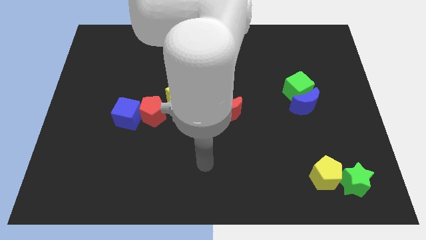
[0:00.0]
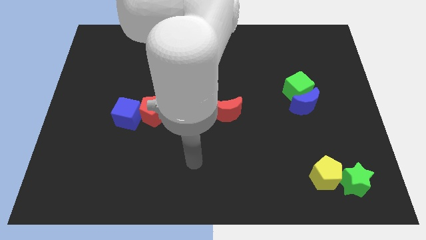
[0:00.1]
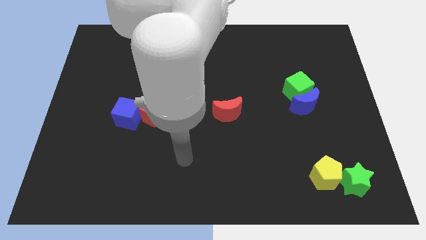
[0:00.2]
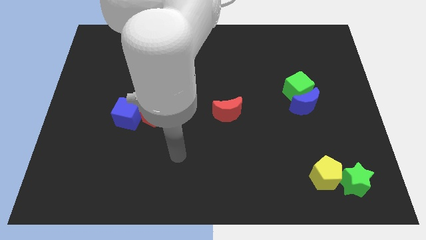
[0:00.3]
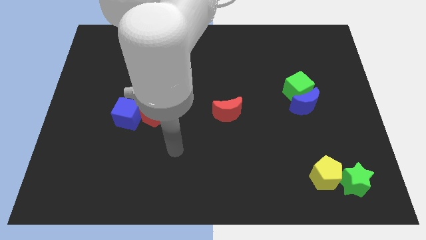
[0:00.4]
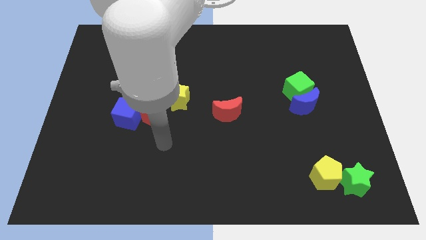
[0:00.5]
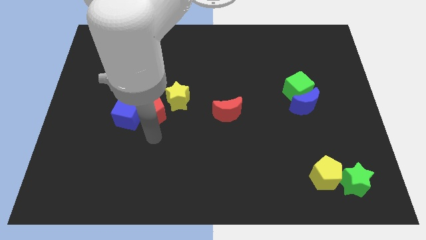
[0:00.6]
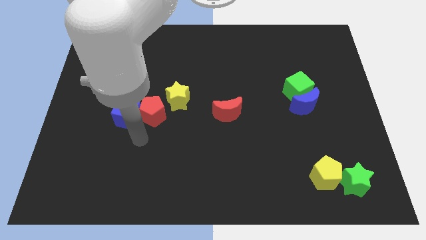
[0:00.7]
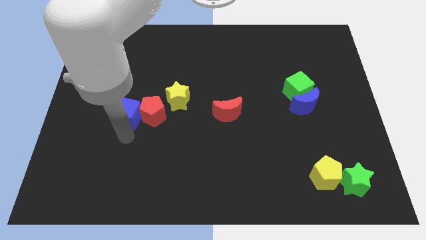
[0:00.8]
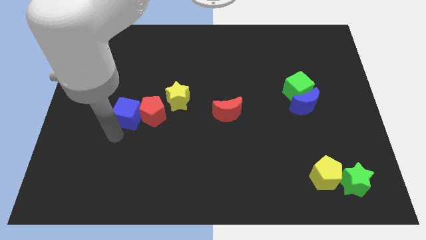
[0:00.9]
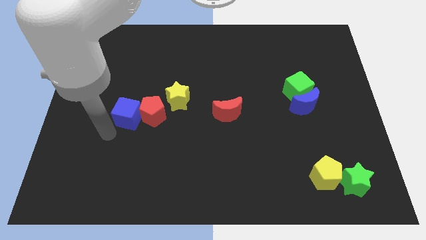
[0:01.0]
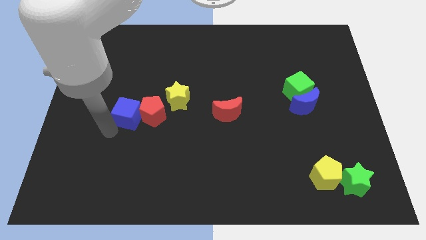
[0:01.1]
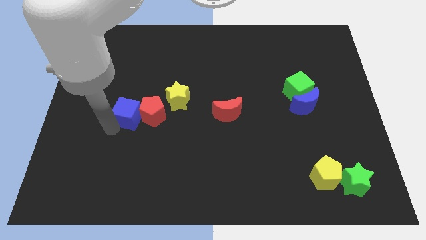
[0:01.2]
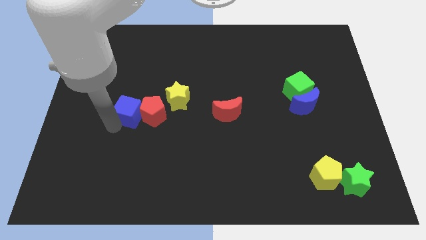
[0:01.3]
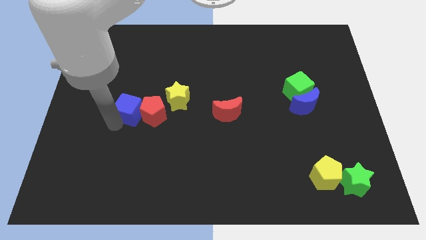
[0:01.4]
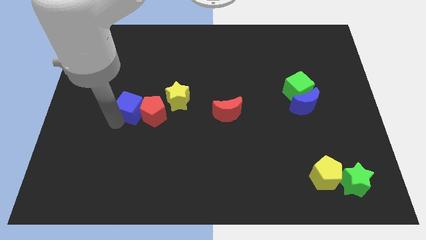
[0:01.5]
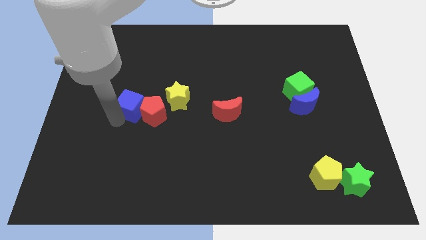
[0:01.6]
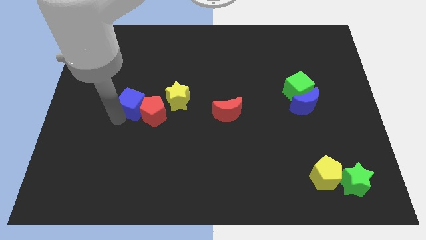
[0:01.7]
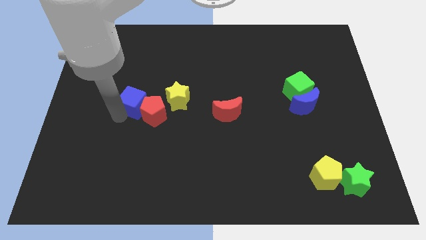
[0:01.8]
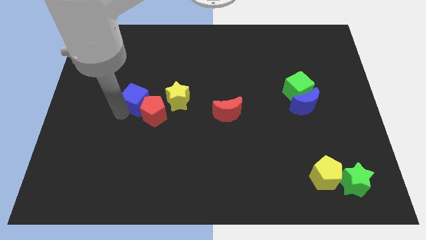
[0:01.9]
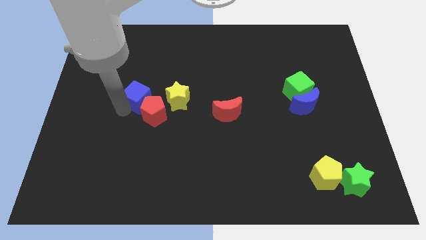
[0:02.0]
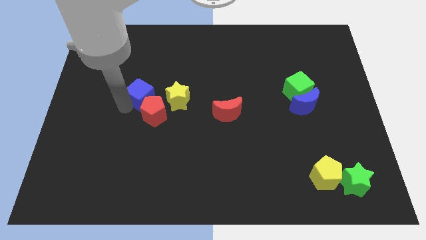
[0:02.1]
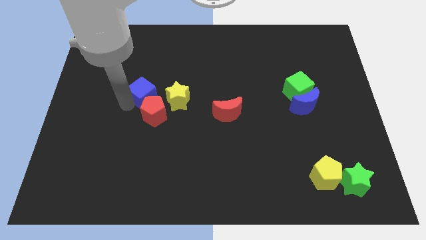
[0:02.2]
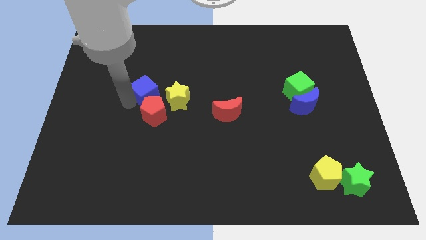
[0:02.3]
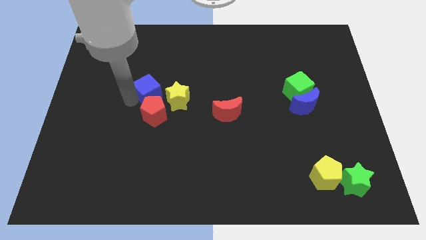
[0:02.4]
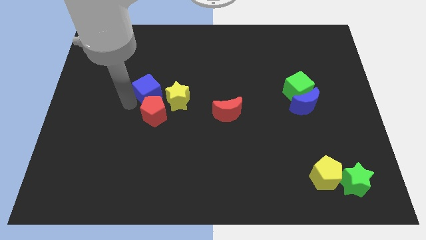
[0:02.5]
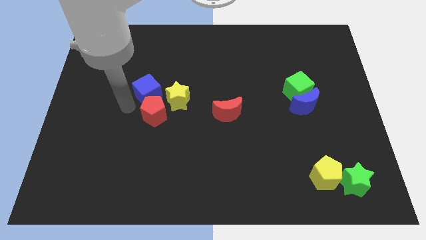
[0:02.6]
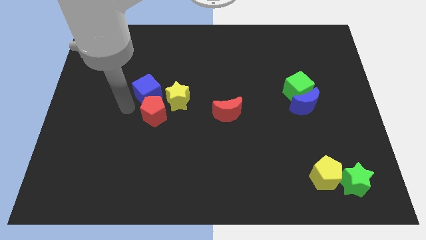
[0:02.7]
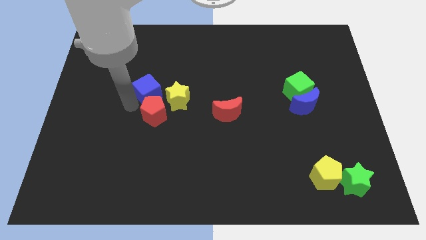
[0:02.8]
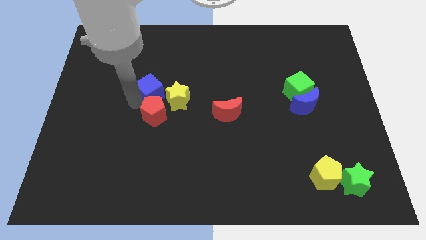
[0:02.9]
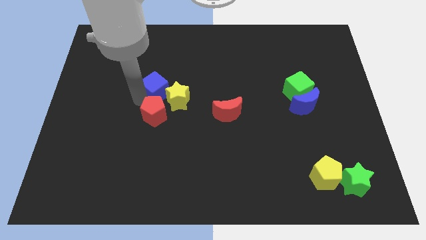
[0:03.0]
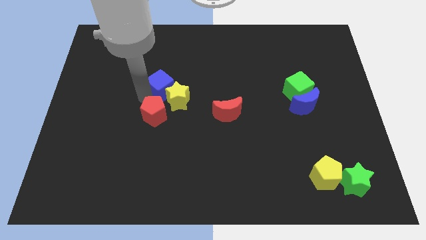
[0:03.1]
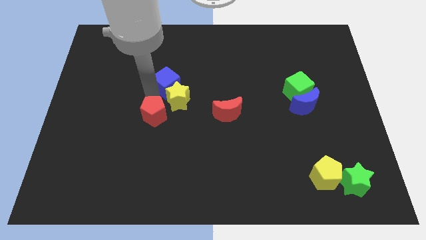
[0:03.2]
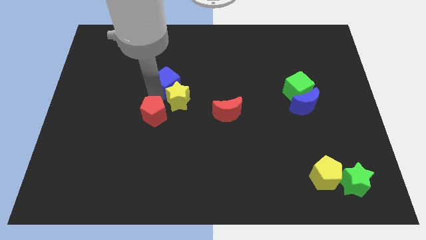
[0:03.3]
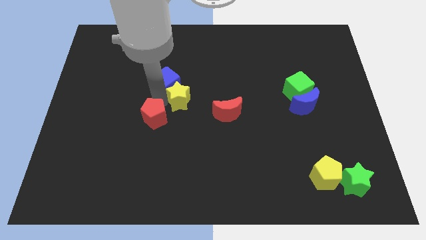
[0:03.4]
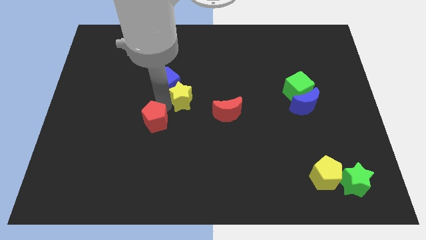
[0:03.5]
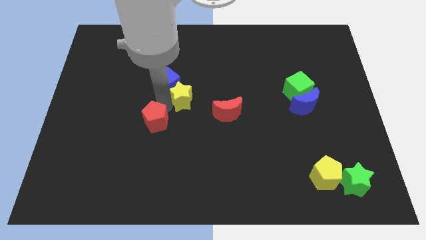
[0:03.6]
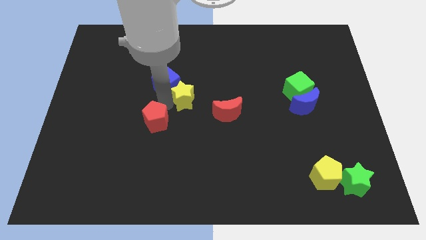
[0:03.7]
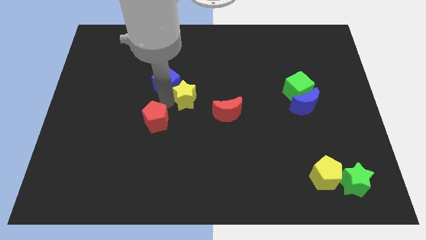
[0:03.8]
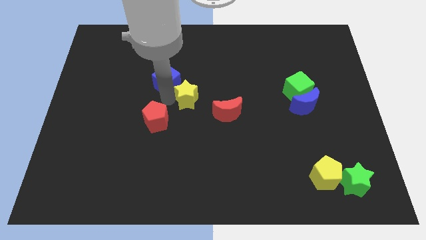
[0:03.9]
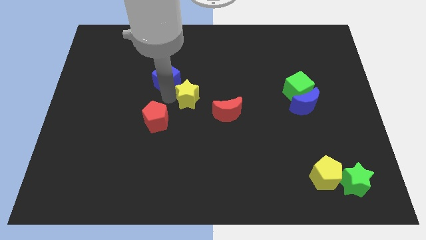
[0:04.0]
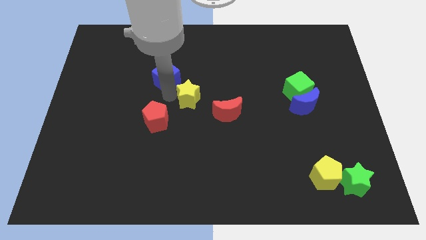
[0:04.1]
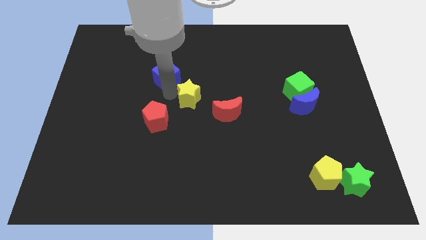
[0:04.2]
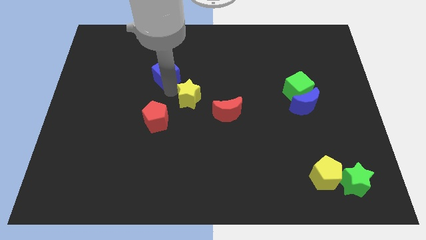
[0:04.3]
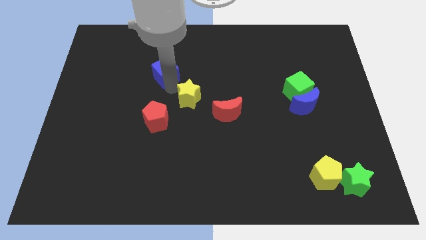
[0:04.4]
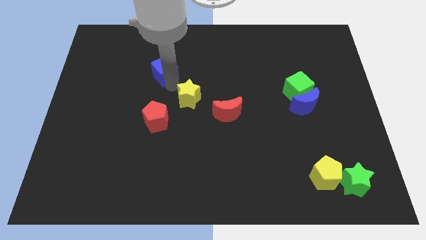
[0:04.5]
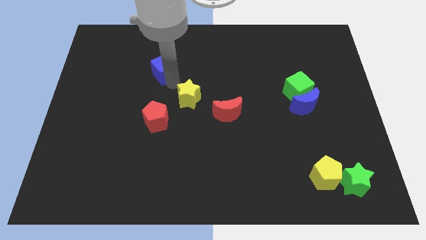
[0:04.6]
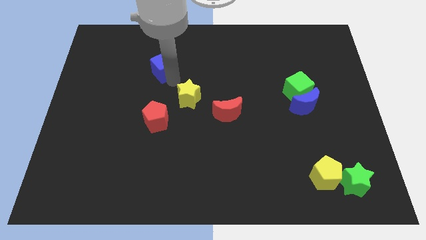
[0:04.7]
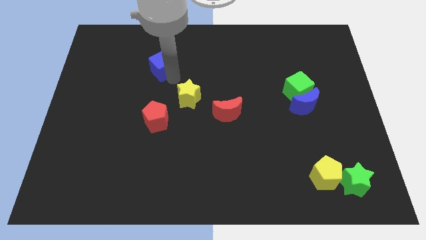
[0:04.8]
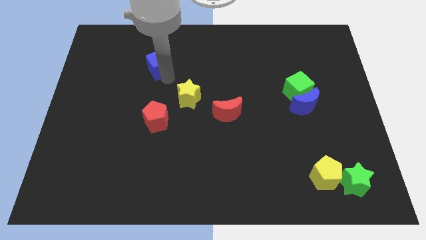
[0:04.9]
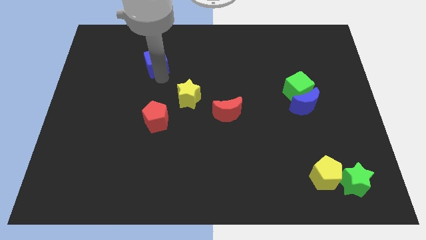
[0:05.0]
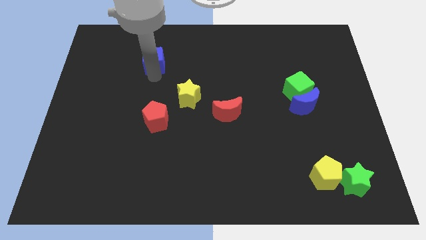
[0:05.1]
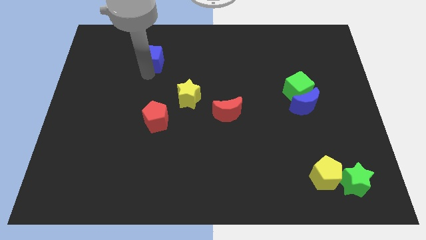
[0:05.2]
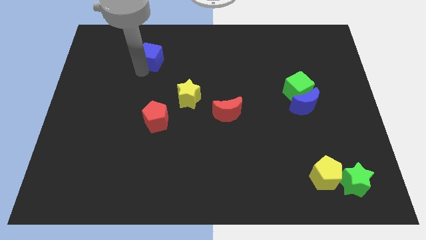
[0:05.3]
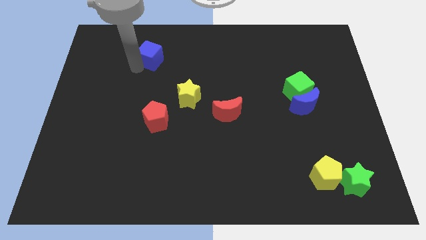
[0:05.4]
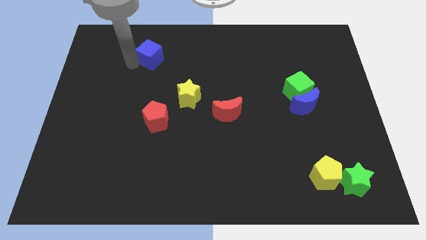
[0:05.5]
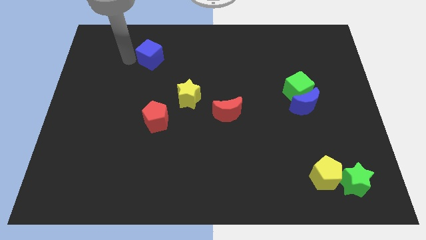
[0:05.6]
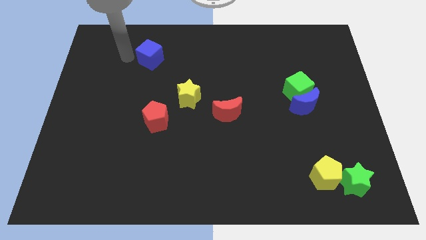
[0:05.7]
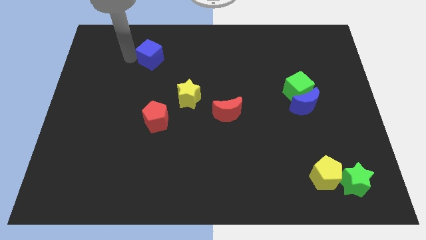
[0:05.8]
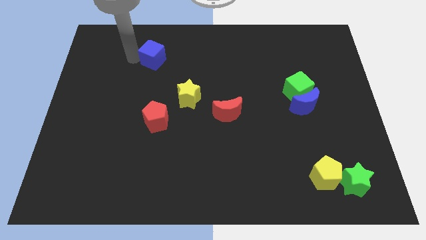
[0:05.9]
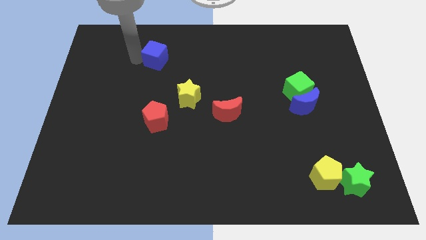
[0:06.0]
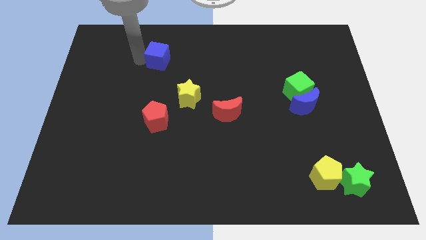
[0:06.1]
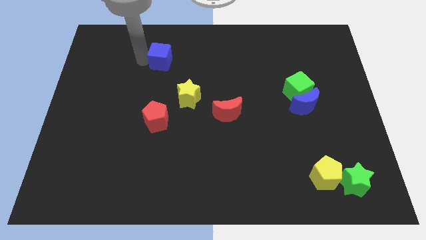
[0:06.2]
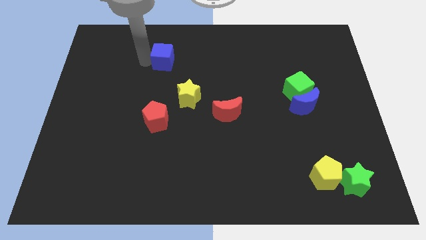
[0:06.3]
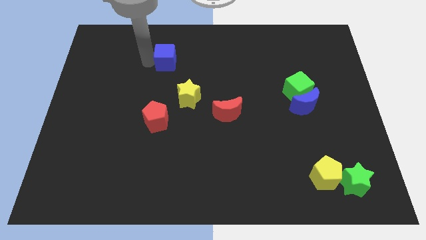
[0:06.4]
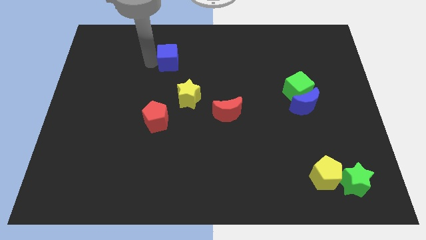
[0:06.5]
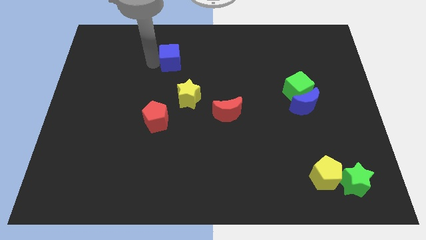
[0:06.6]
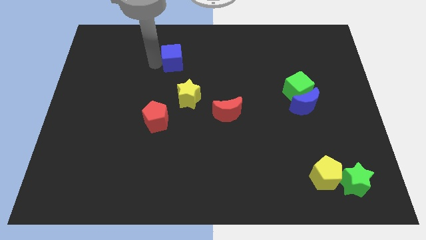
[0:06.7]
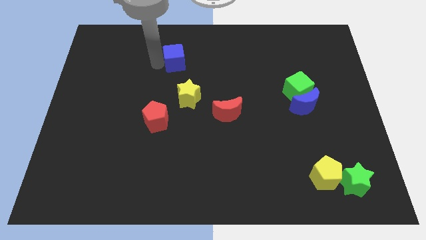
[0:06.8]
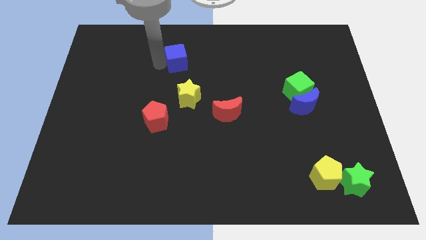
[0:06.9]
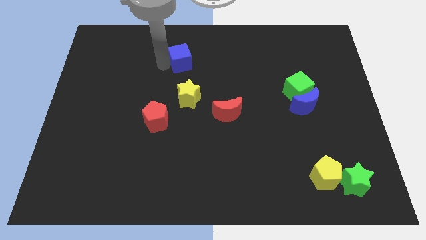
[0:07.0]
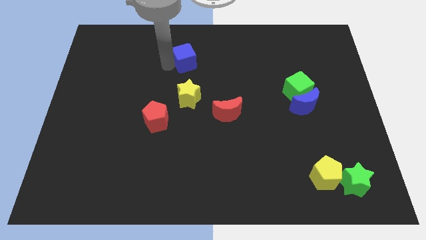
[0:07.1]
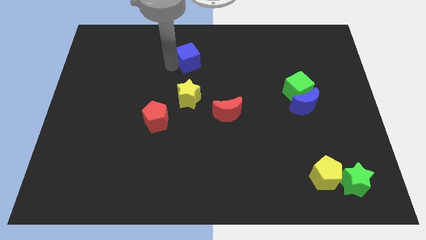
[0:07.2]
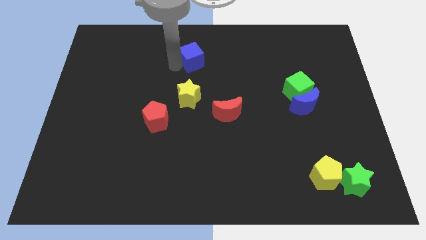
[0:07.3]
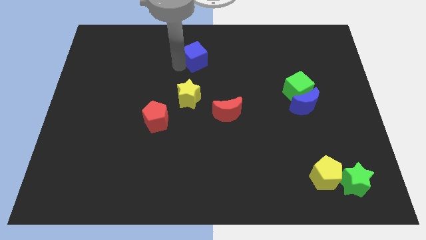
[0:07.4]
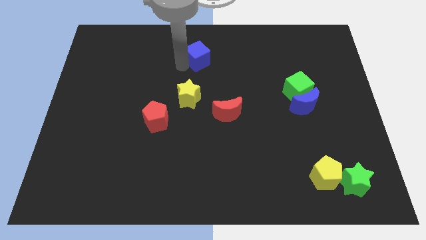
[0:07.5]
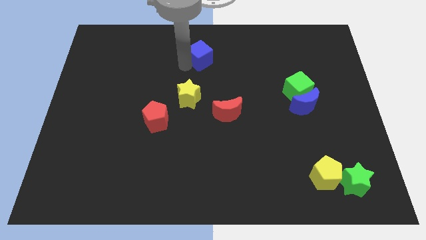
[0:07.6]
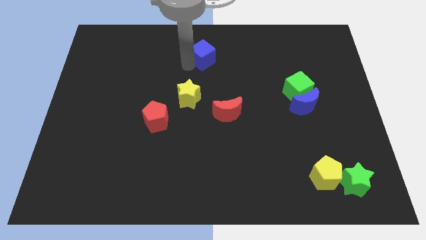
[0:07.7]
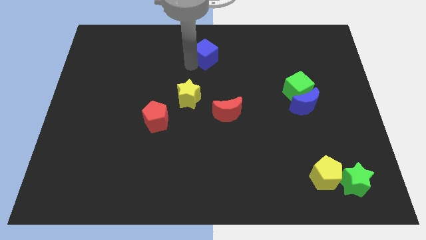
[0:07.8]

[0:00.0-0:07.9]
push the blue cube to the towards your base
